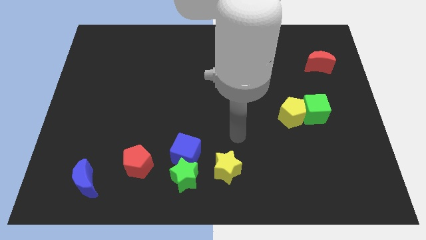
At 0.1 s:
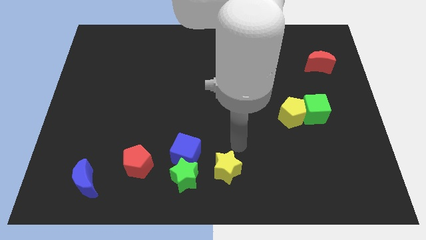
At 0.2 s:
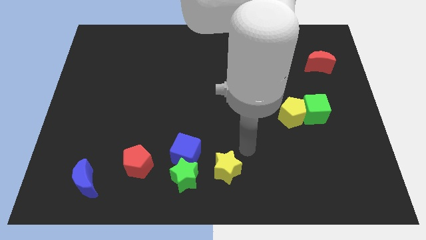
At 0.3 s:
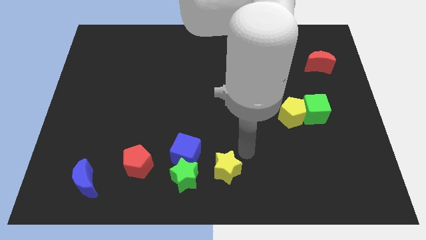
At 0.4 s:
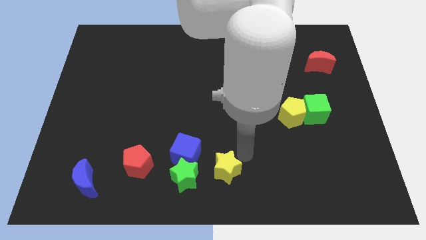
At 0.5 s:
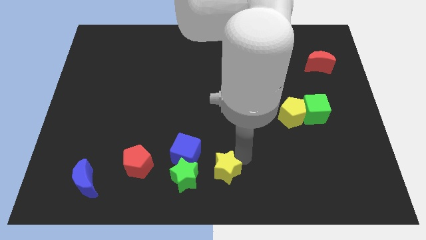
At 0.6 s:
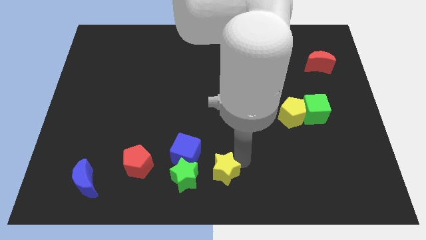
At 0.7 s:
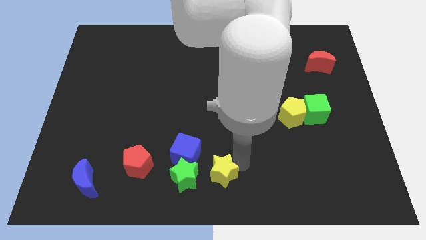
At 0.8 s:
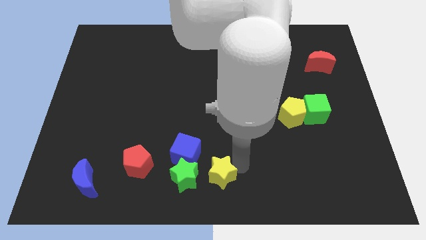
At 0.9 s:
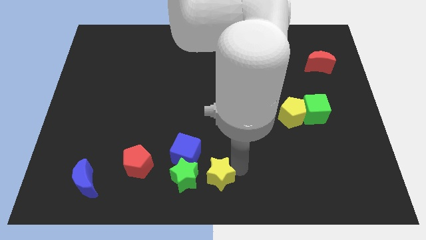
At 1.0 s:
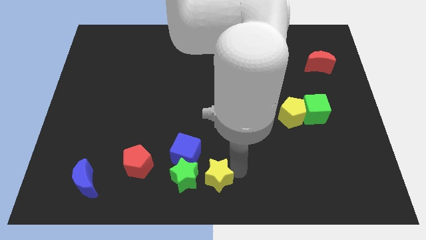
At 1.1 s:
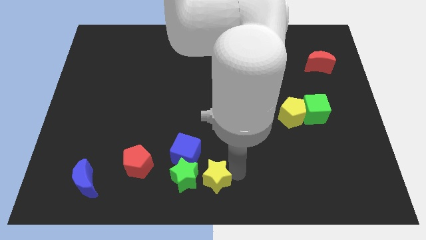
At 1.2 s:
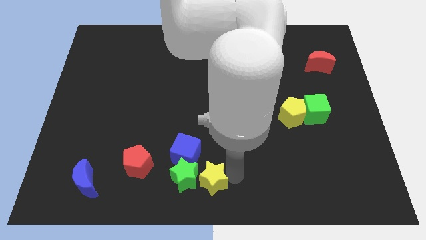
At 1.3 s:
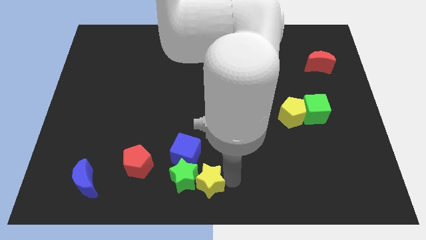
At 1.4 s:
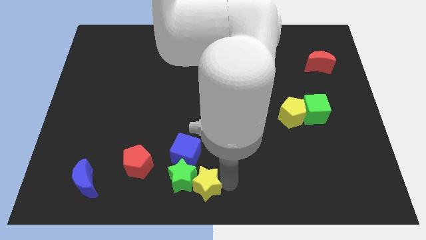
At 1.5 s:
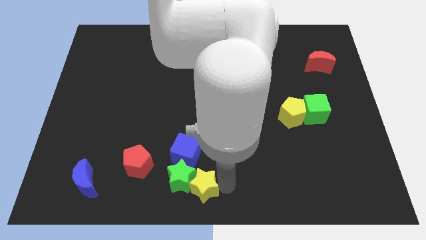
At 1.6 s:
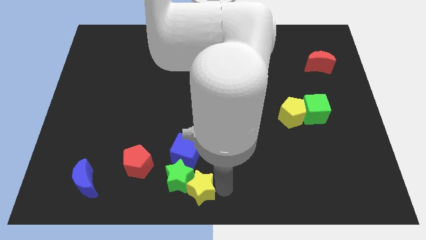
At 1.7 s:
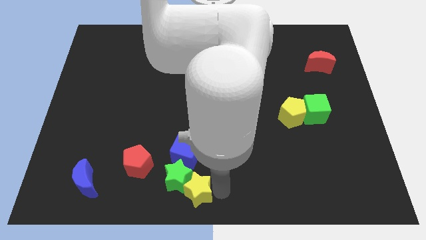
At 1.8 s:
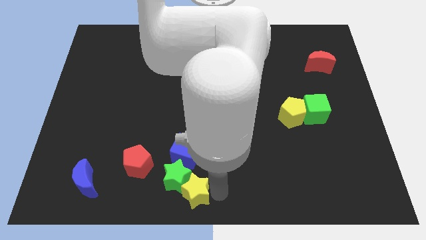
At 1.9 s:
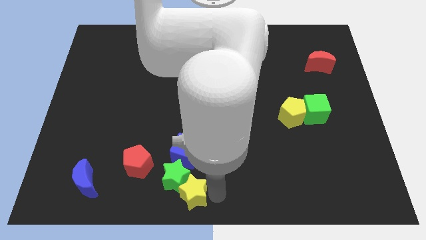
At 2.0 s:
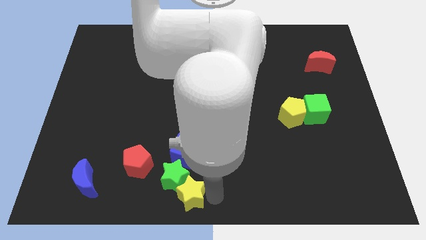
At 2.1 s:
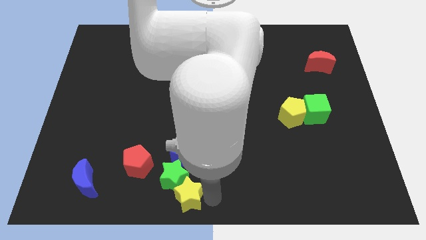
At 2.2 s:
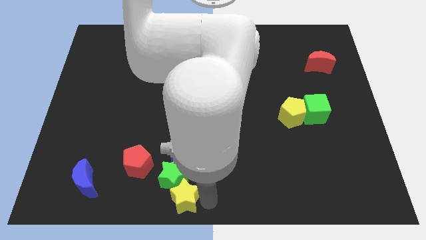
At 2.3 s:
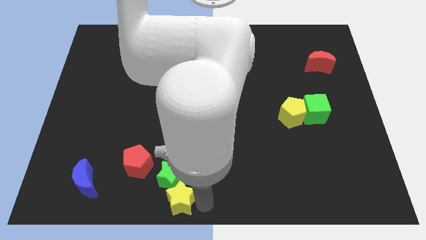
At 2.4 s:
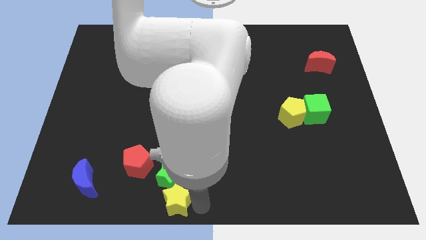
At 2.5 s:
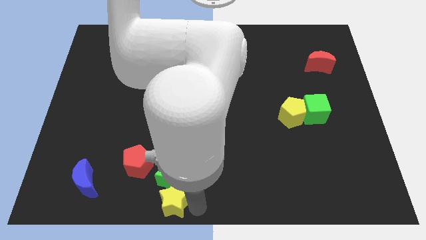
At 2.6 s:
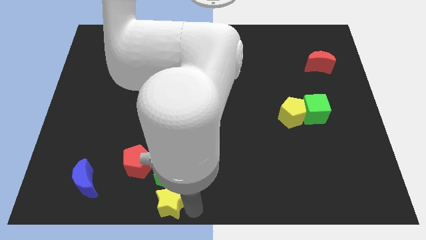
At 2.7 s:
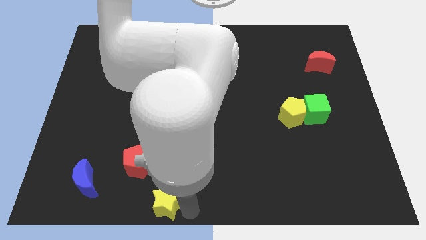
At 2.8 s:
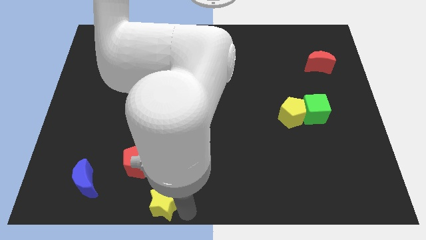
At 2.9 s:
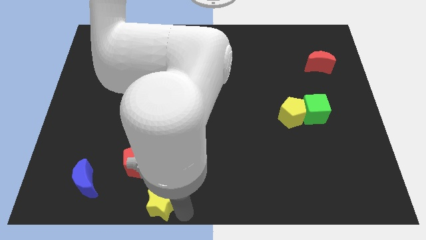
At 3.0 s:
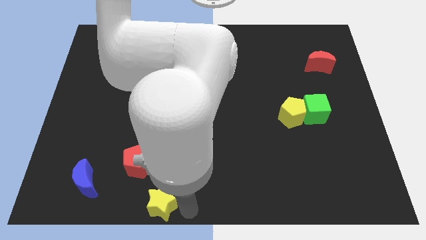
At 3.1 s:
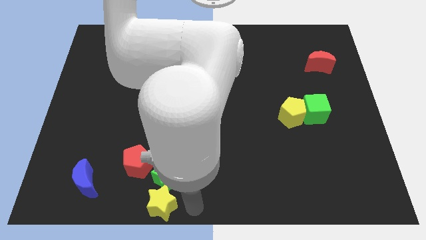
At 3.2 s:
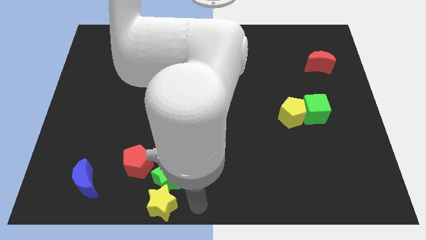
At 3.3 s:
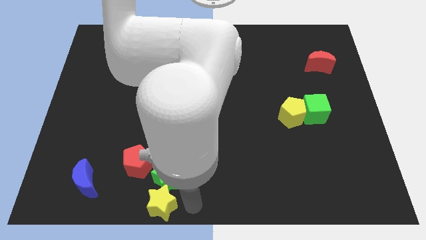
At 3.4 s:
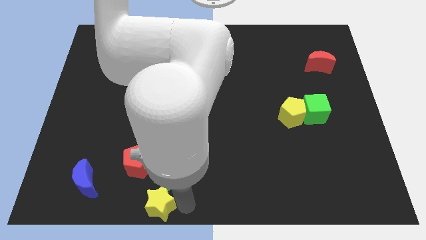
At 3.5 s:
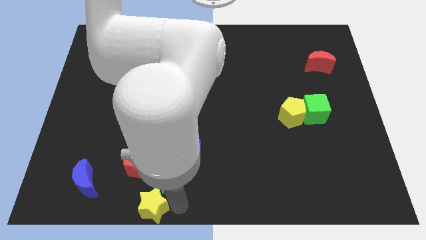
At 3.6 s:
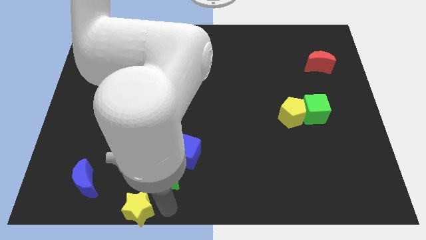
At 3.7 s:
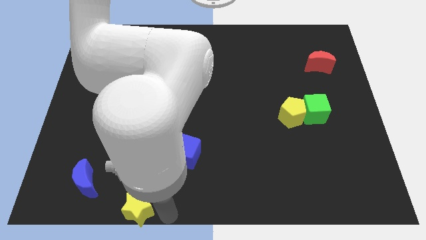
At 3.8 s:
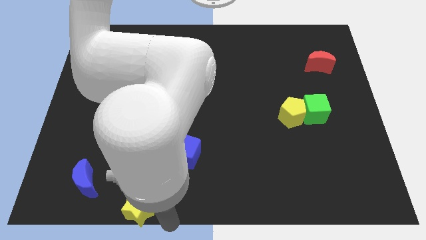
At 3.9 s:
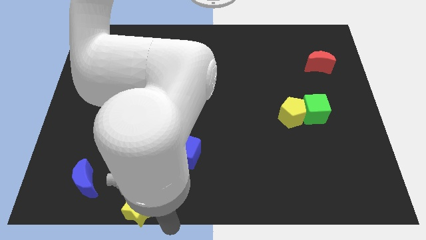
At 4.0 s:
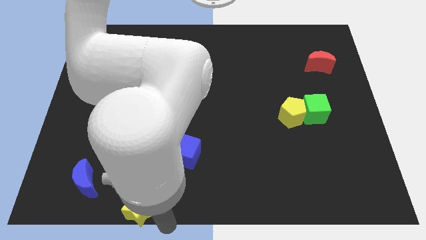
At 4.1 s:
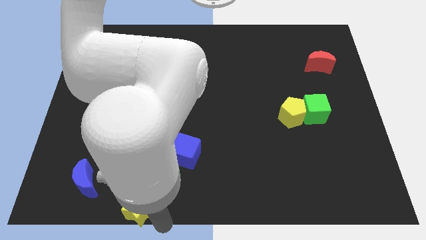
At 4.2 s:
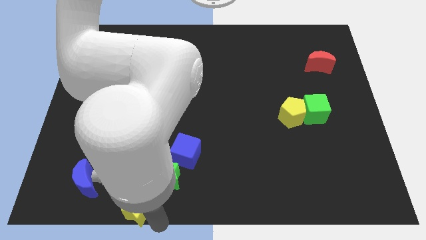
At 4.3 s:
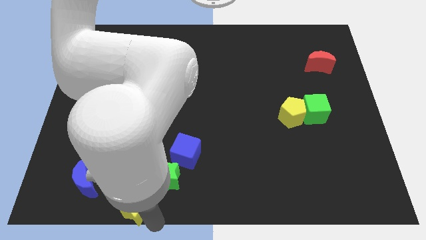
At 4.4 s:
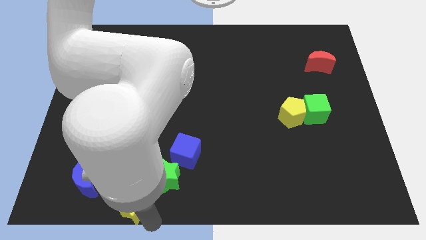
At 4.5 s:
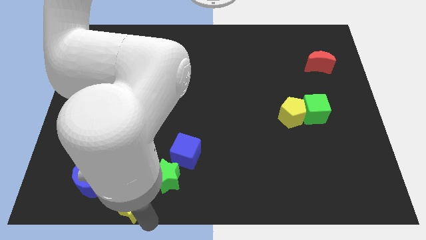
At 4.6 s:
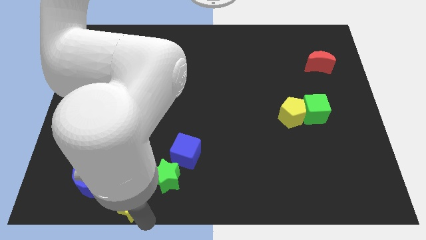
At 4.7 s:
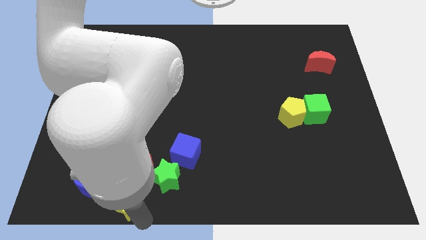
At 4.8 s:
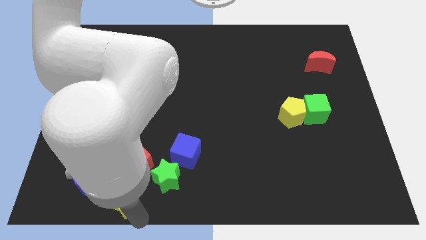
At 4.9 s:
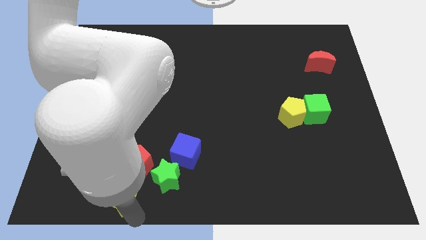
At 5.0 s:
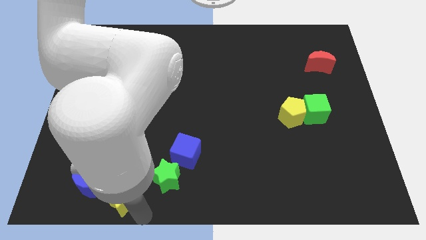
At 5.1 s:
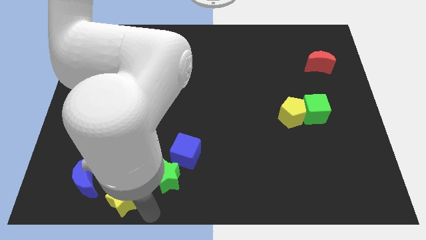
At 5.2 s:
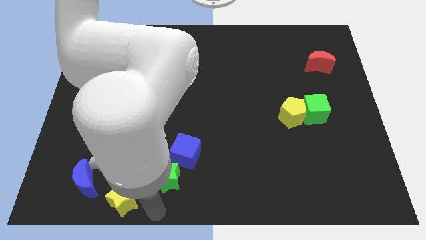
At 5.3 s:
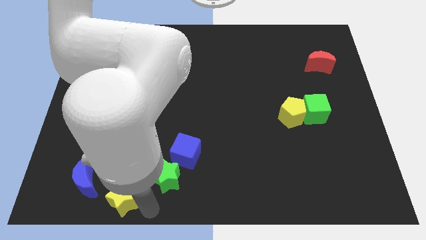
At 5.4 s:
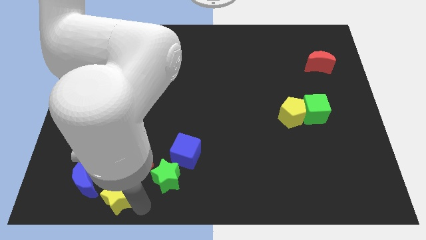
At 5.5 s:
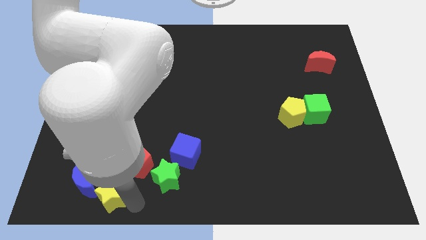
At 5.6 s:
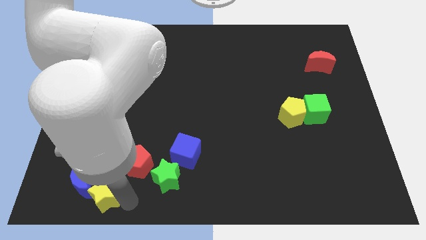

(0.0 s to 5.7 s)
put the yellow star to the blue moon

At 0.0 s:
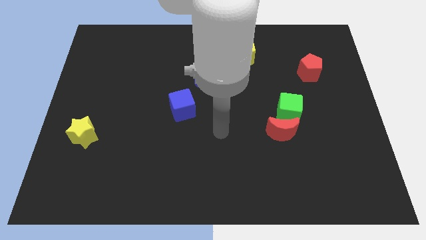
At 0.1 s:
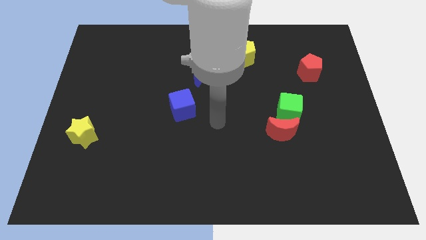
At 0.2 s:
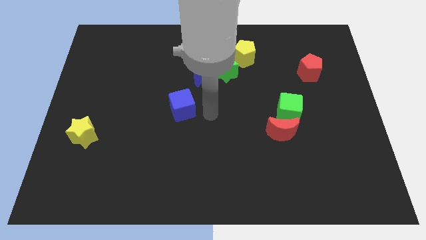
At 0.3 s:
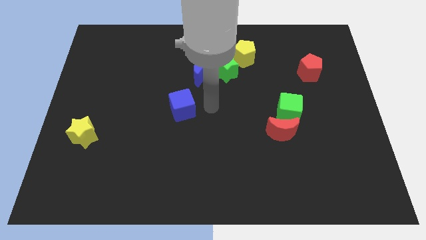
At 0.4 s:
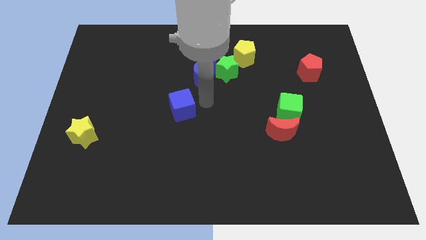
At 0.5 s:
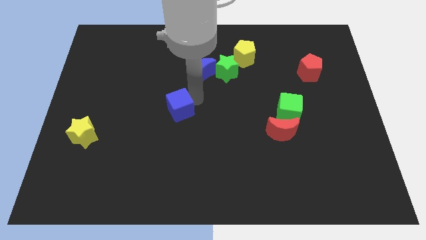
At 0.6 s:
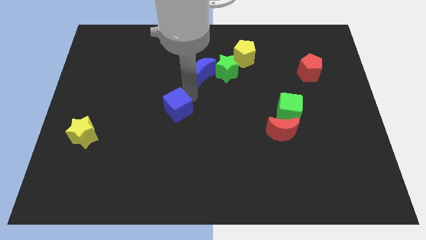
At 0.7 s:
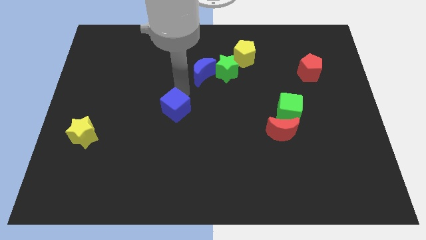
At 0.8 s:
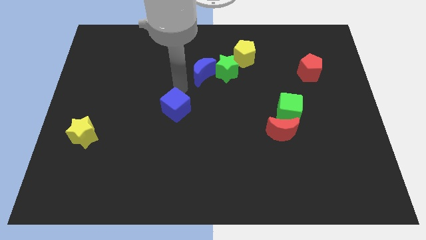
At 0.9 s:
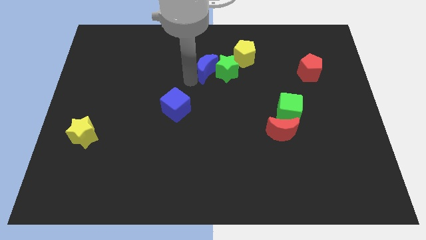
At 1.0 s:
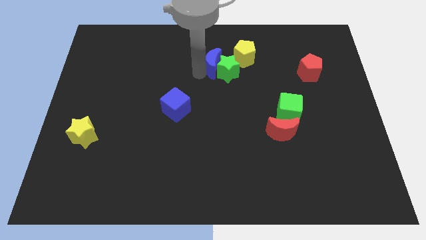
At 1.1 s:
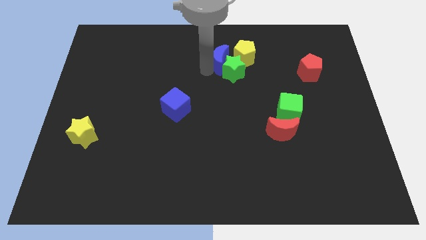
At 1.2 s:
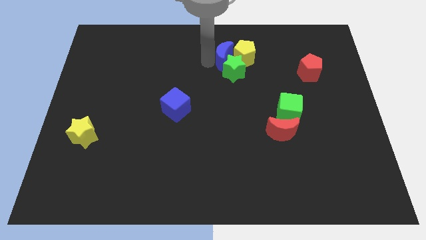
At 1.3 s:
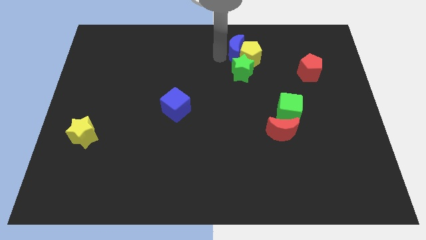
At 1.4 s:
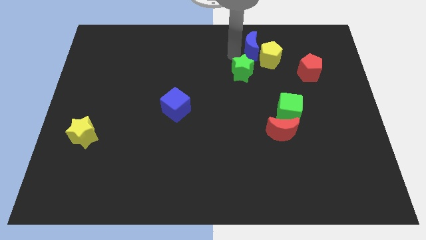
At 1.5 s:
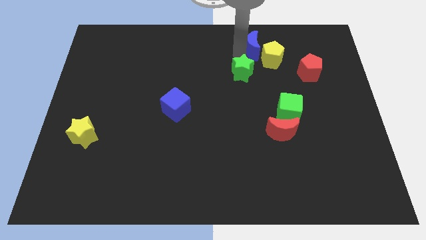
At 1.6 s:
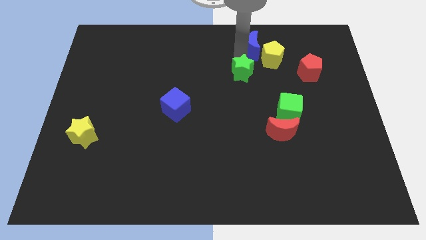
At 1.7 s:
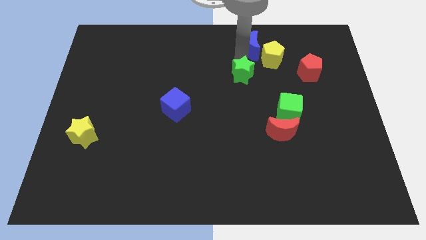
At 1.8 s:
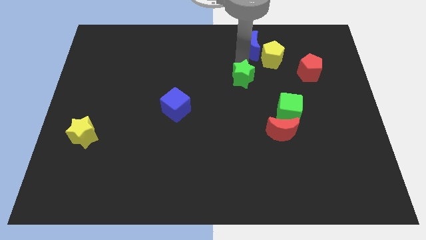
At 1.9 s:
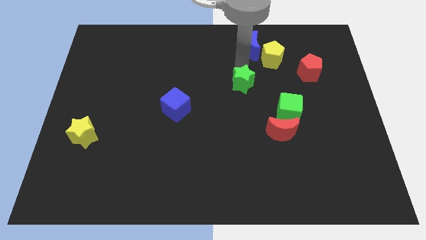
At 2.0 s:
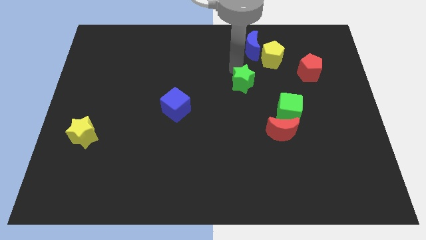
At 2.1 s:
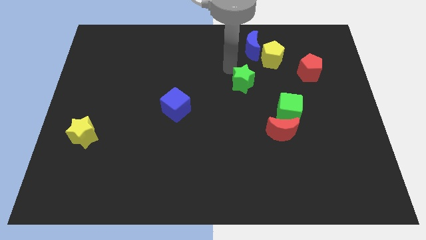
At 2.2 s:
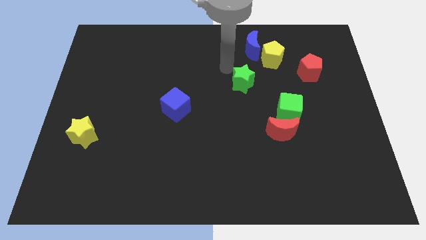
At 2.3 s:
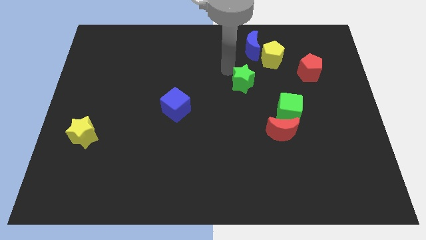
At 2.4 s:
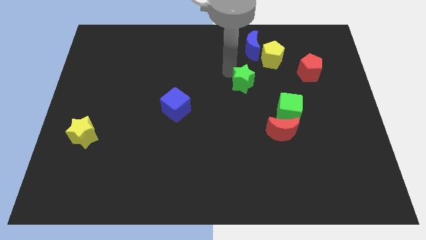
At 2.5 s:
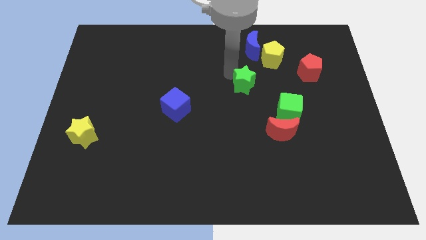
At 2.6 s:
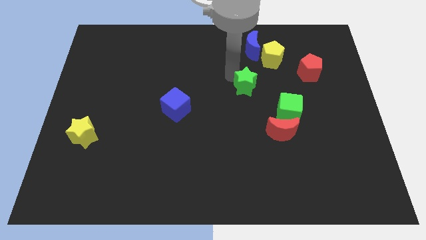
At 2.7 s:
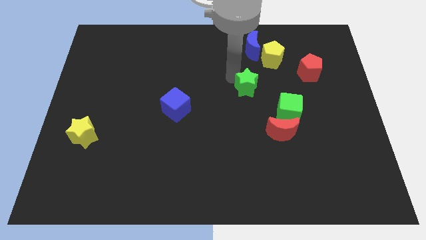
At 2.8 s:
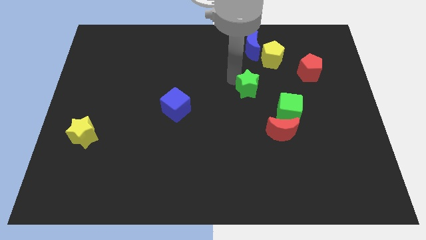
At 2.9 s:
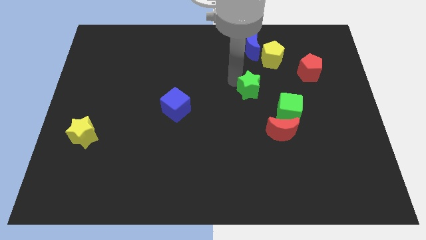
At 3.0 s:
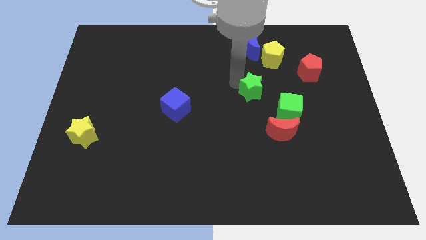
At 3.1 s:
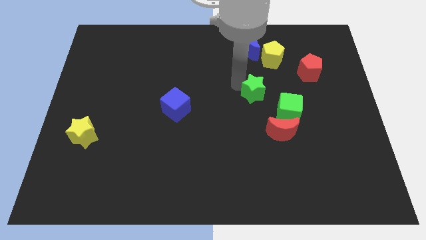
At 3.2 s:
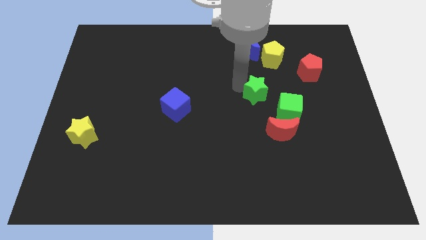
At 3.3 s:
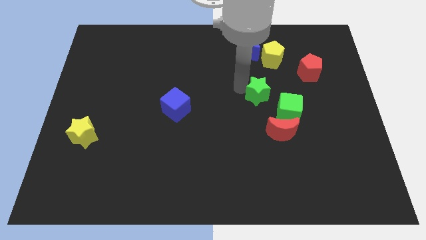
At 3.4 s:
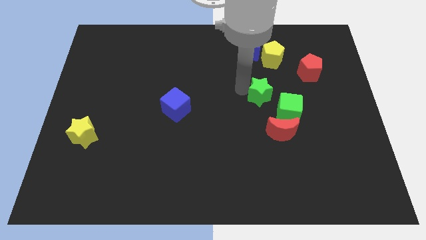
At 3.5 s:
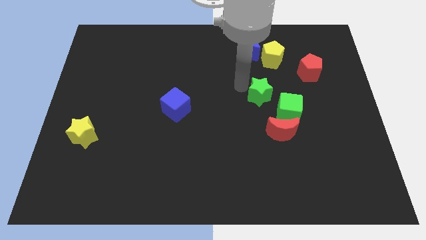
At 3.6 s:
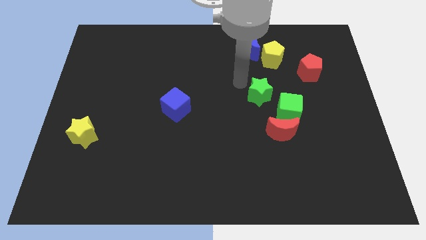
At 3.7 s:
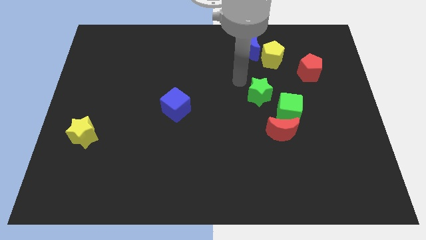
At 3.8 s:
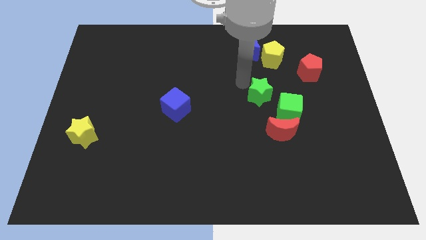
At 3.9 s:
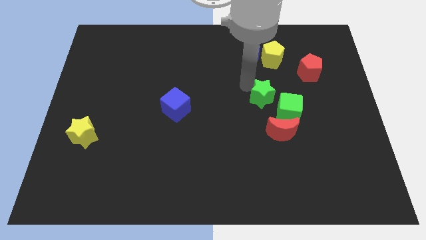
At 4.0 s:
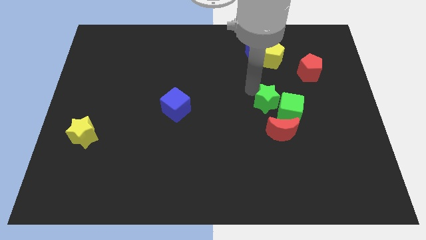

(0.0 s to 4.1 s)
move the green star towards the green cube
